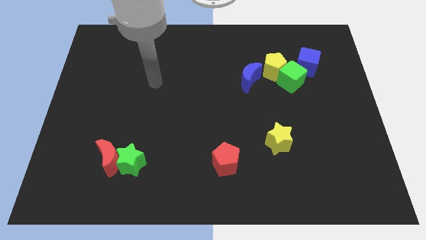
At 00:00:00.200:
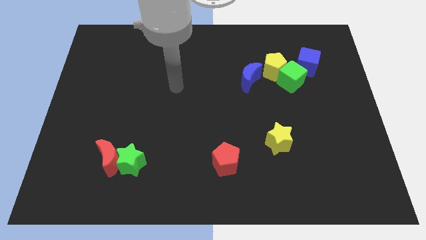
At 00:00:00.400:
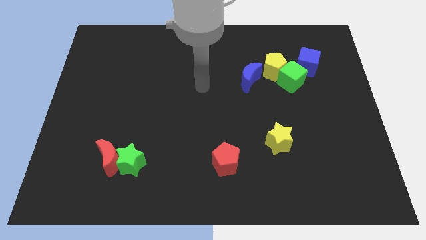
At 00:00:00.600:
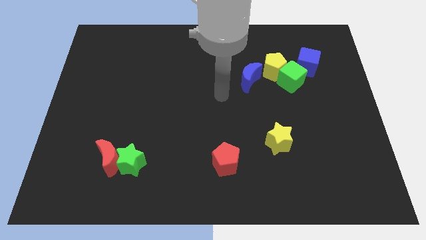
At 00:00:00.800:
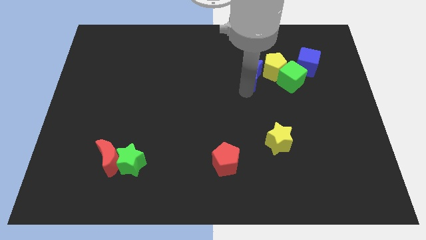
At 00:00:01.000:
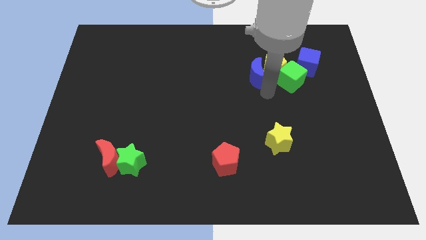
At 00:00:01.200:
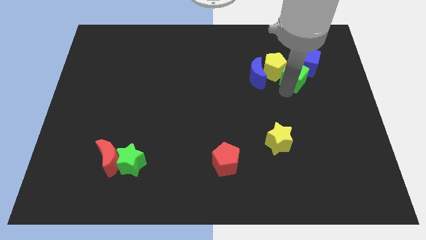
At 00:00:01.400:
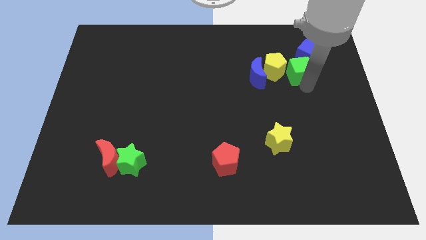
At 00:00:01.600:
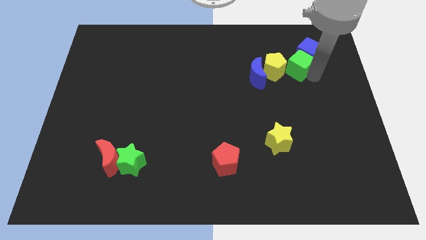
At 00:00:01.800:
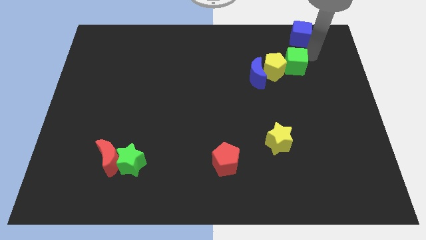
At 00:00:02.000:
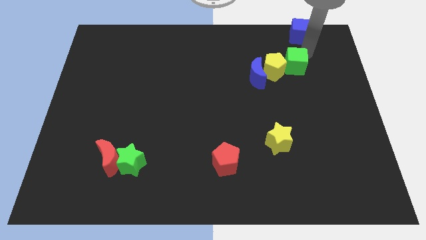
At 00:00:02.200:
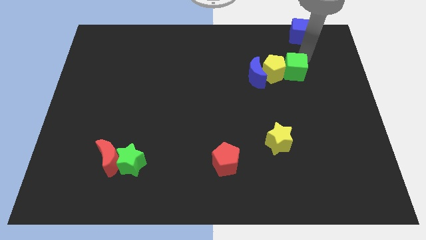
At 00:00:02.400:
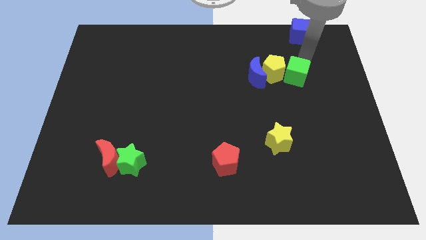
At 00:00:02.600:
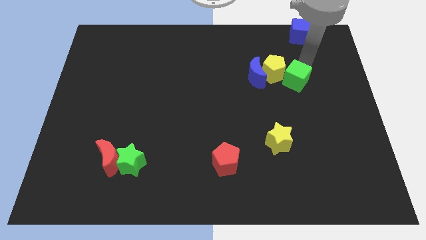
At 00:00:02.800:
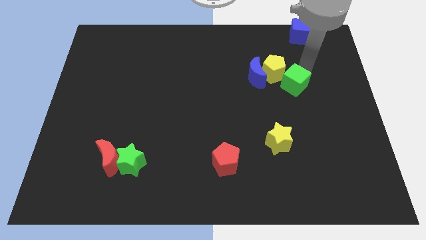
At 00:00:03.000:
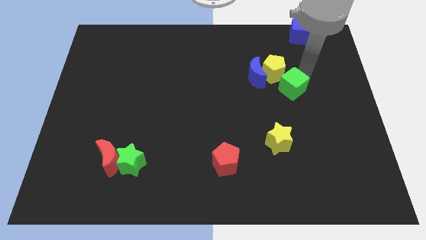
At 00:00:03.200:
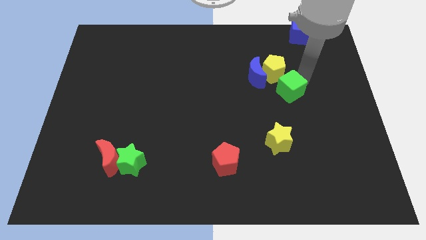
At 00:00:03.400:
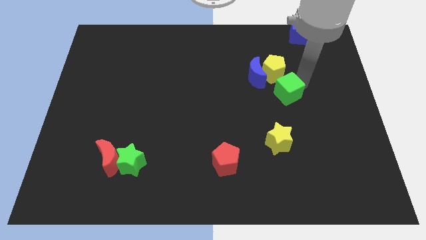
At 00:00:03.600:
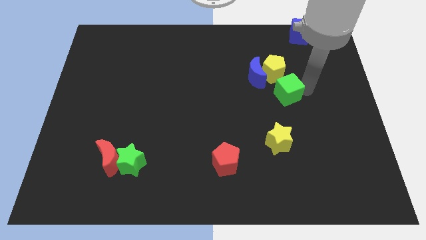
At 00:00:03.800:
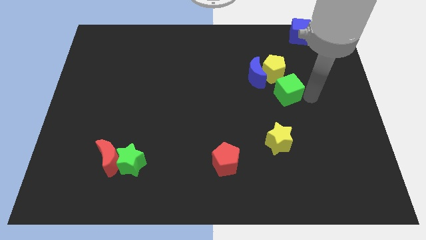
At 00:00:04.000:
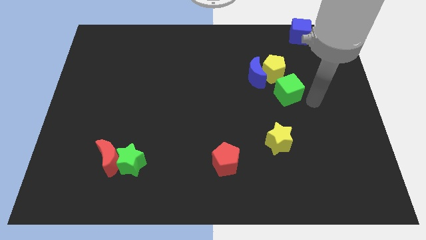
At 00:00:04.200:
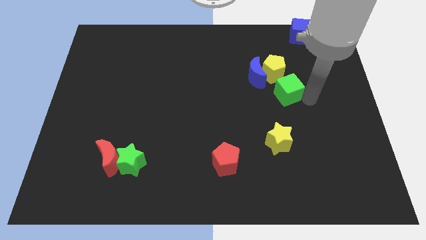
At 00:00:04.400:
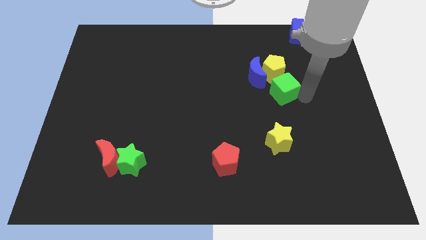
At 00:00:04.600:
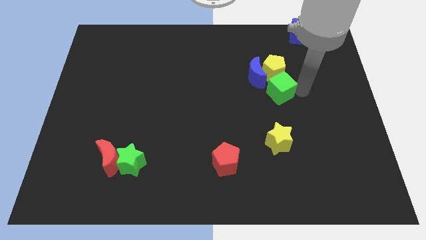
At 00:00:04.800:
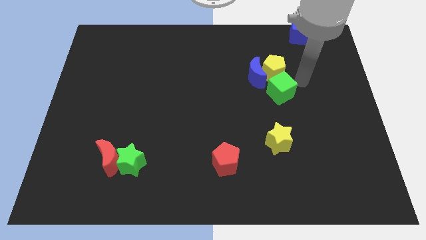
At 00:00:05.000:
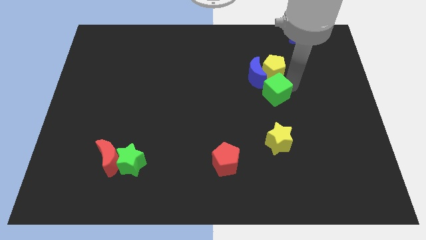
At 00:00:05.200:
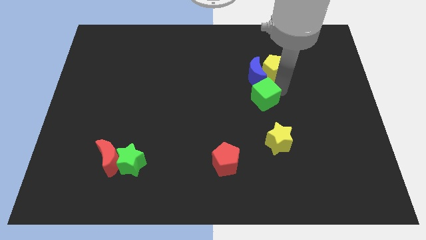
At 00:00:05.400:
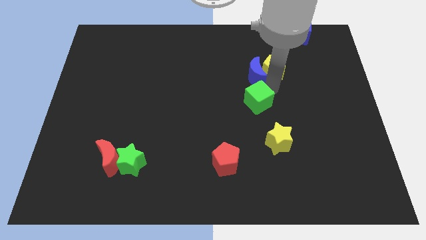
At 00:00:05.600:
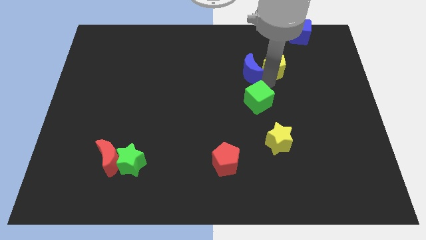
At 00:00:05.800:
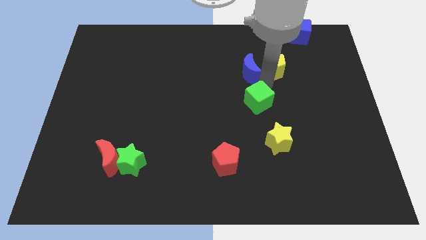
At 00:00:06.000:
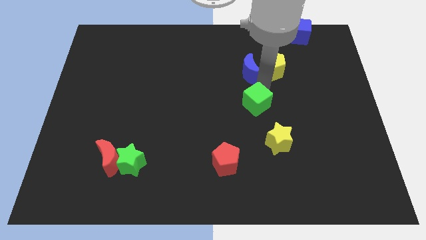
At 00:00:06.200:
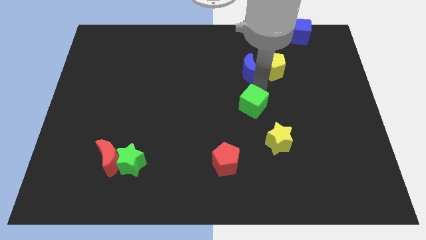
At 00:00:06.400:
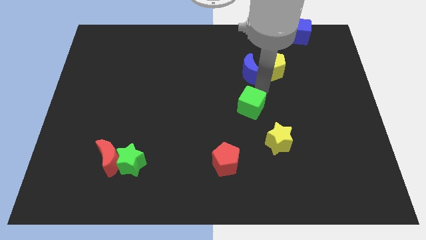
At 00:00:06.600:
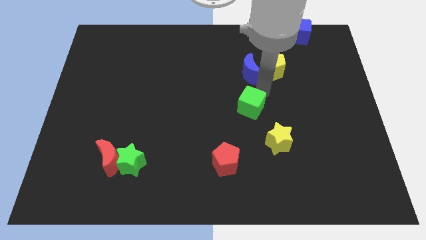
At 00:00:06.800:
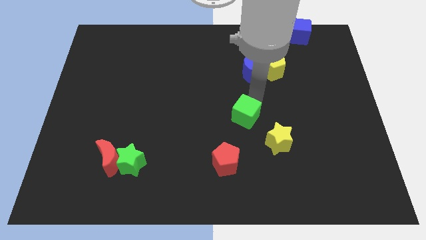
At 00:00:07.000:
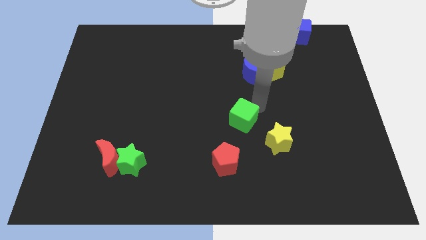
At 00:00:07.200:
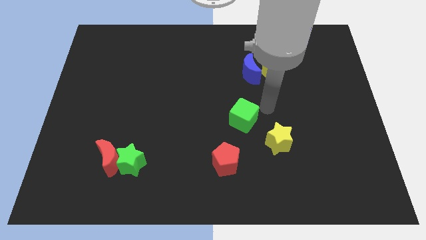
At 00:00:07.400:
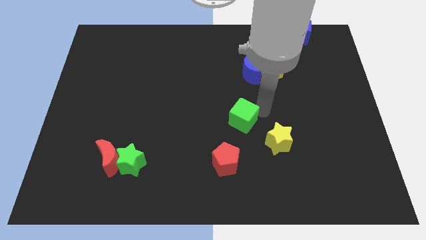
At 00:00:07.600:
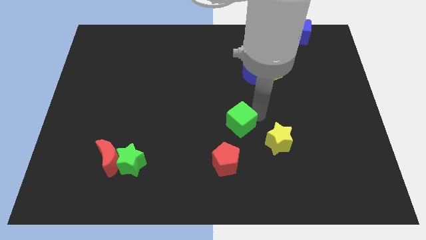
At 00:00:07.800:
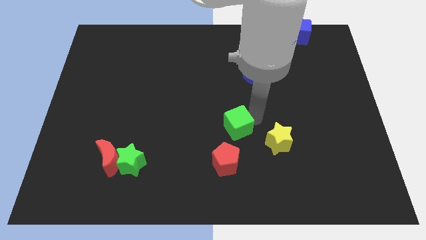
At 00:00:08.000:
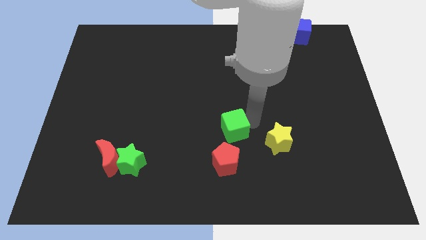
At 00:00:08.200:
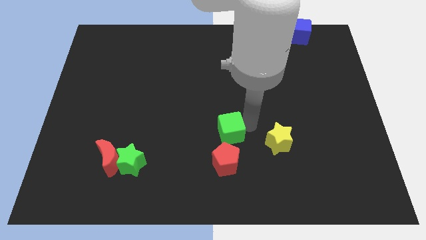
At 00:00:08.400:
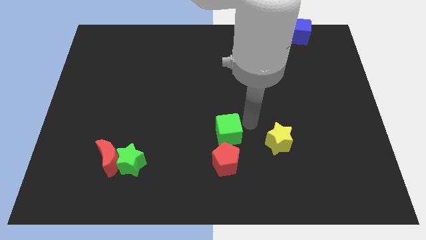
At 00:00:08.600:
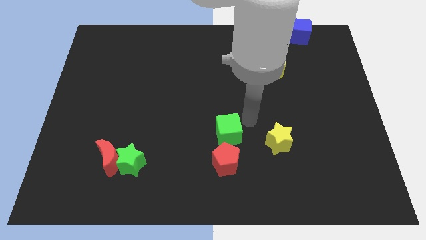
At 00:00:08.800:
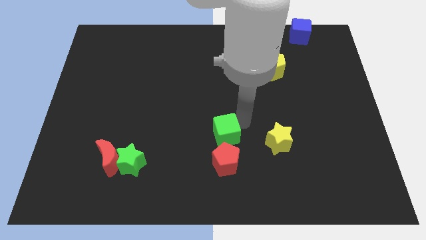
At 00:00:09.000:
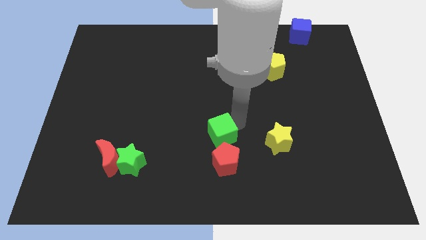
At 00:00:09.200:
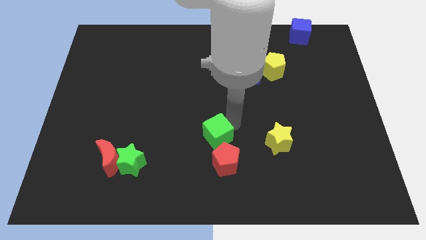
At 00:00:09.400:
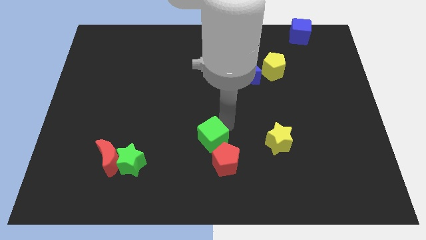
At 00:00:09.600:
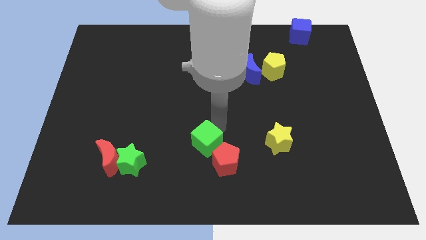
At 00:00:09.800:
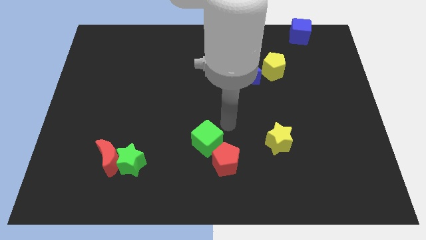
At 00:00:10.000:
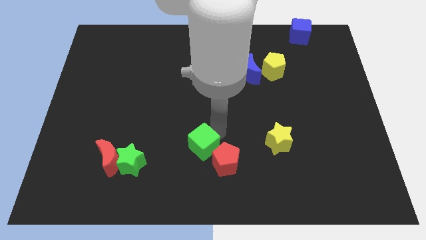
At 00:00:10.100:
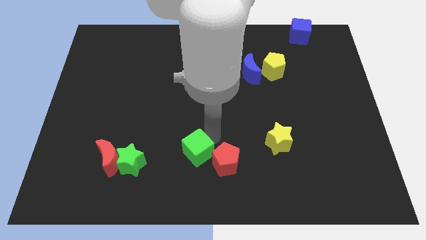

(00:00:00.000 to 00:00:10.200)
slide the green cube to the right of the green star

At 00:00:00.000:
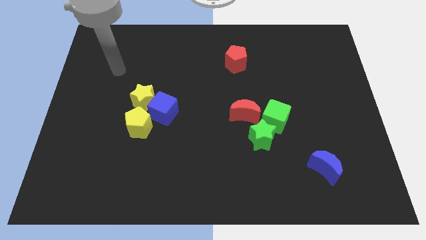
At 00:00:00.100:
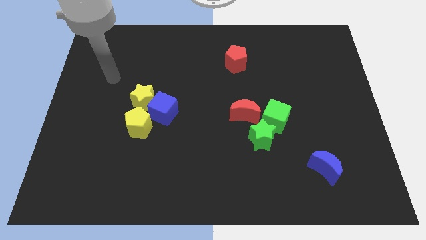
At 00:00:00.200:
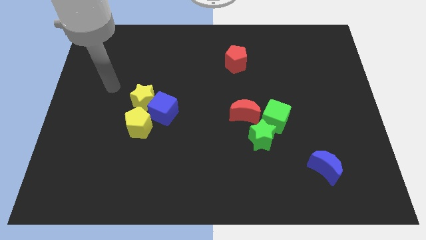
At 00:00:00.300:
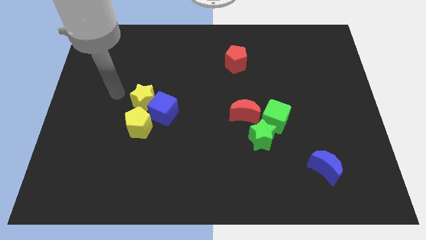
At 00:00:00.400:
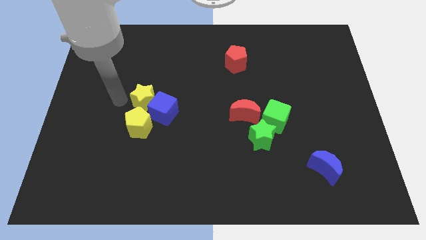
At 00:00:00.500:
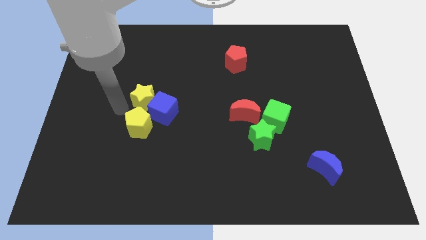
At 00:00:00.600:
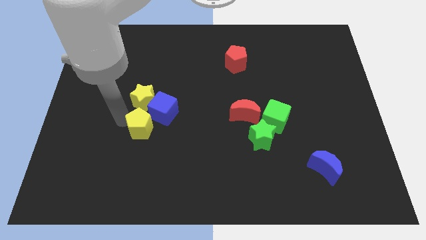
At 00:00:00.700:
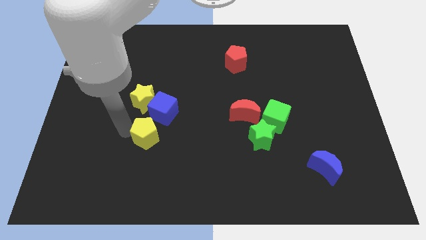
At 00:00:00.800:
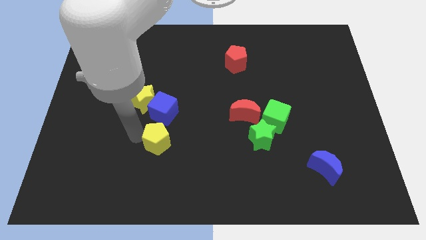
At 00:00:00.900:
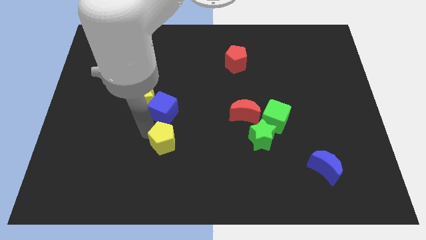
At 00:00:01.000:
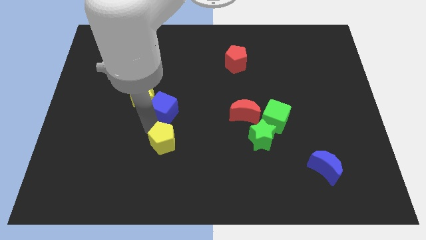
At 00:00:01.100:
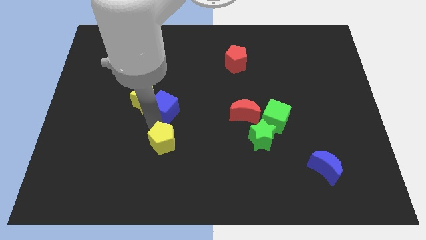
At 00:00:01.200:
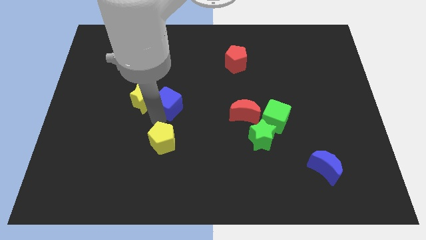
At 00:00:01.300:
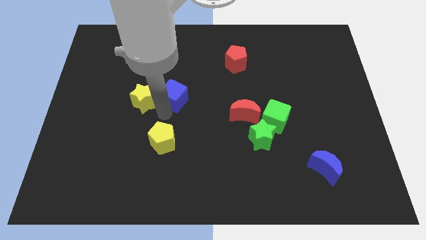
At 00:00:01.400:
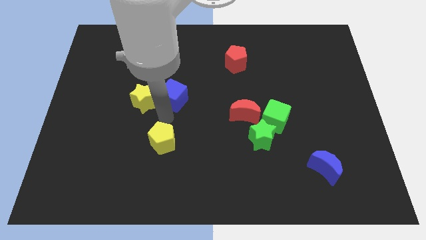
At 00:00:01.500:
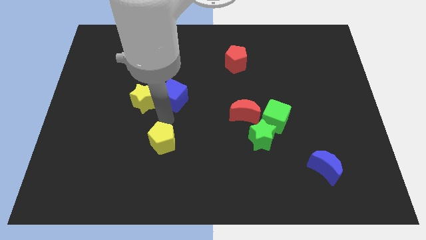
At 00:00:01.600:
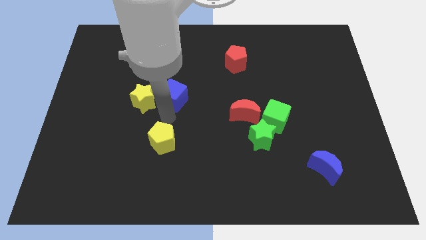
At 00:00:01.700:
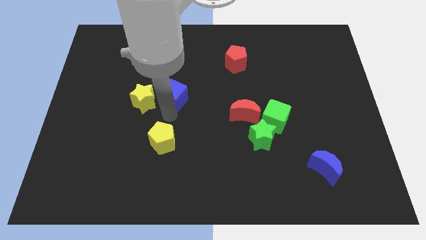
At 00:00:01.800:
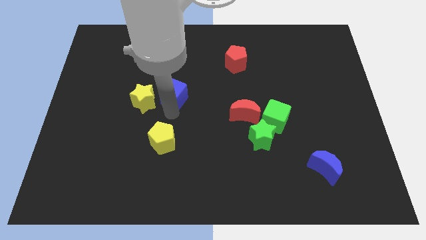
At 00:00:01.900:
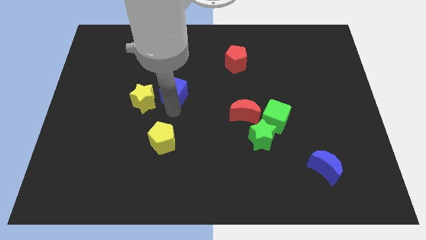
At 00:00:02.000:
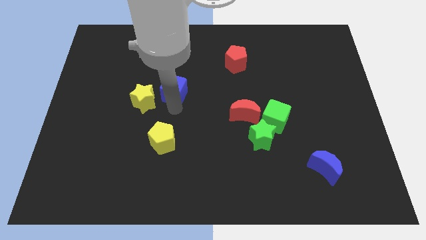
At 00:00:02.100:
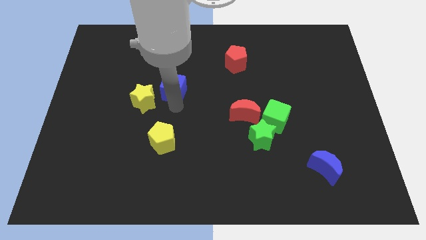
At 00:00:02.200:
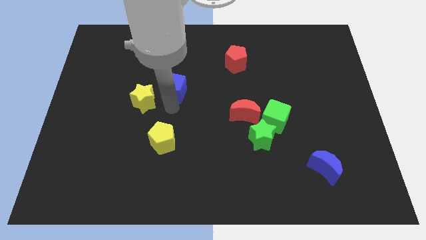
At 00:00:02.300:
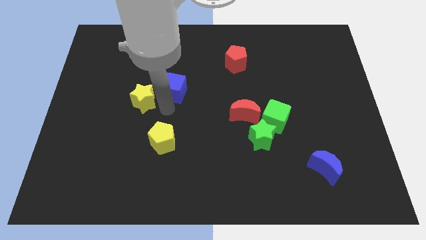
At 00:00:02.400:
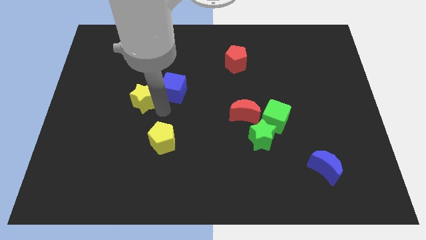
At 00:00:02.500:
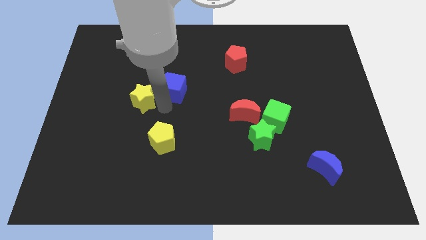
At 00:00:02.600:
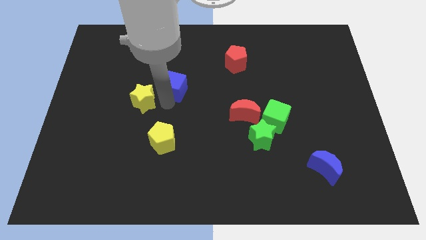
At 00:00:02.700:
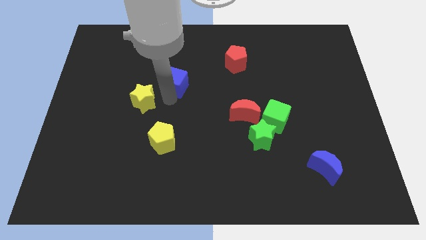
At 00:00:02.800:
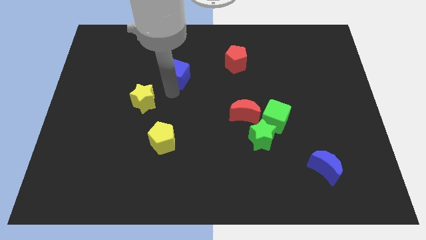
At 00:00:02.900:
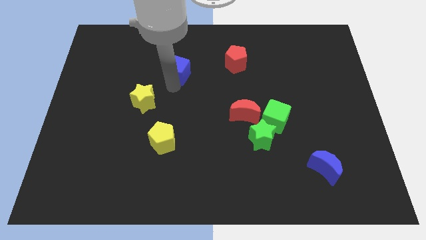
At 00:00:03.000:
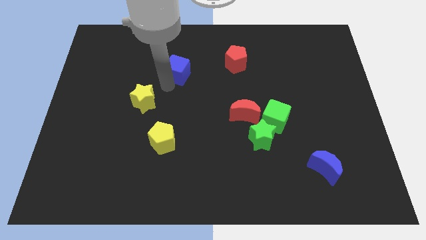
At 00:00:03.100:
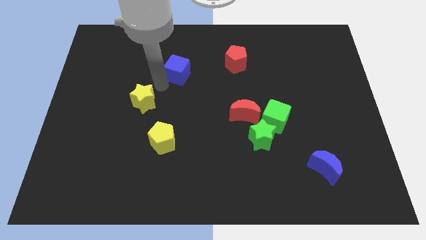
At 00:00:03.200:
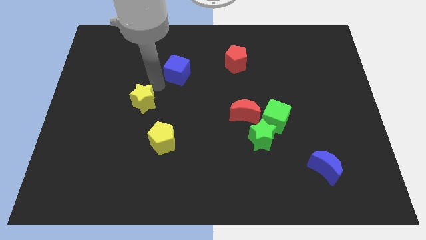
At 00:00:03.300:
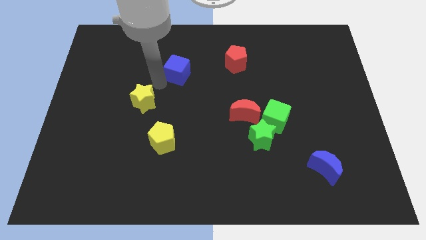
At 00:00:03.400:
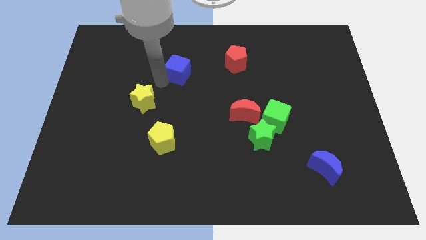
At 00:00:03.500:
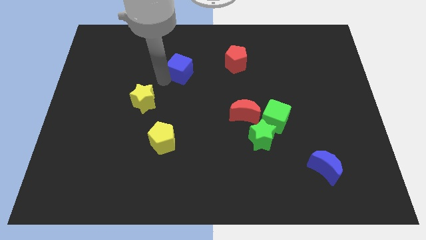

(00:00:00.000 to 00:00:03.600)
slide the blue cube just left of the red pentagon
